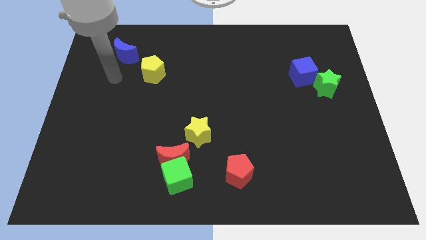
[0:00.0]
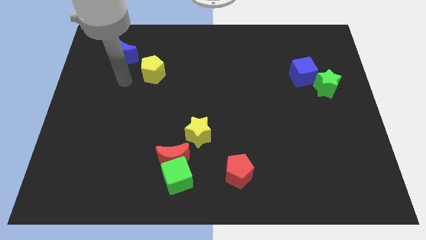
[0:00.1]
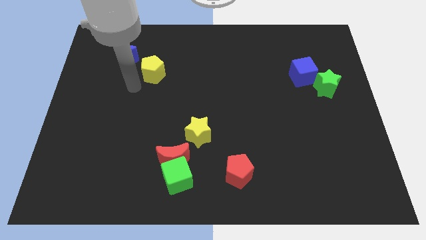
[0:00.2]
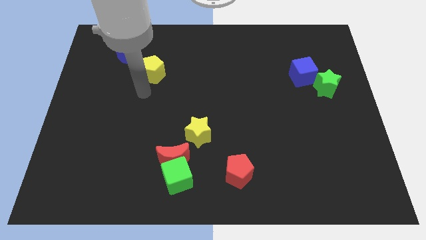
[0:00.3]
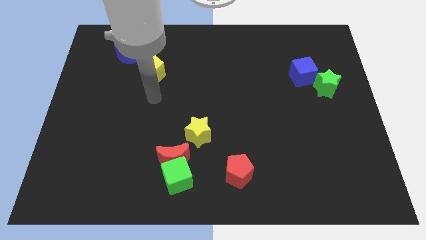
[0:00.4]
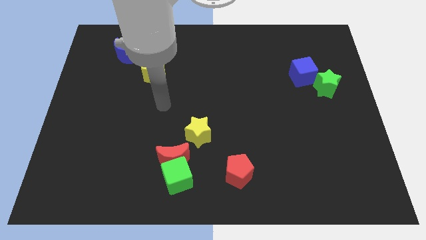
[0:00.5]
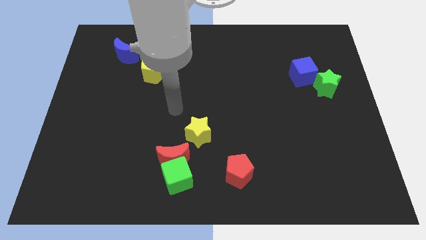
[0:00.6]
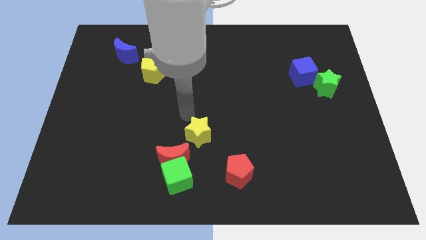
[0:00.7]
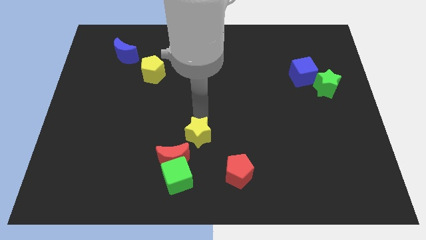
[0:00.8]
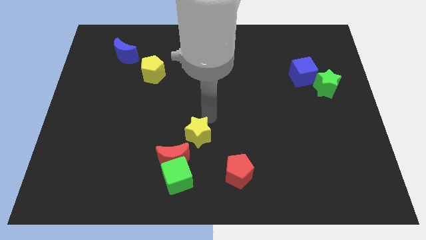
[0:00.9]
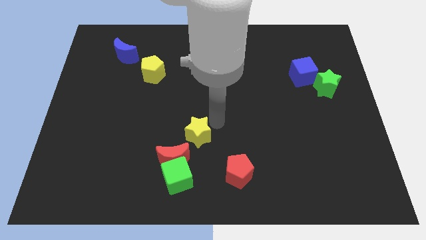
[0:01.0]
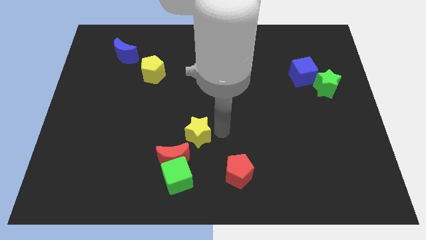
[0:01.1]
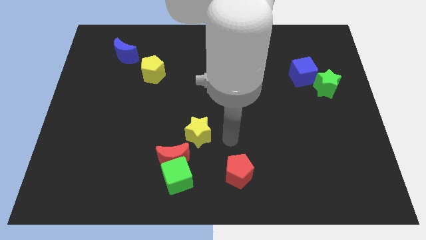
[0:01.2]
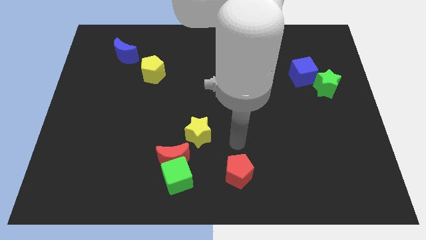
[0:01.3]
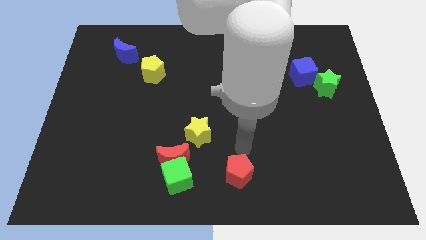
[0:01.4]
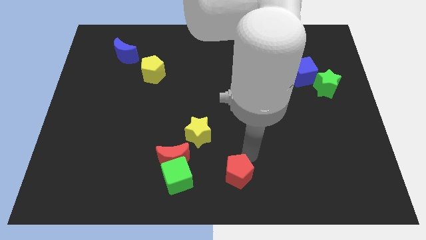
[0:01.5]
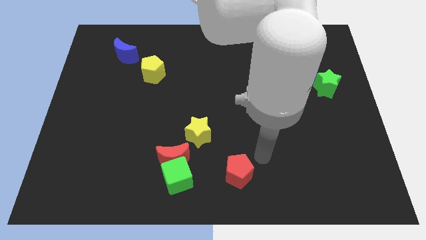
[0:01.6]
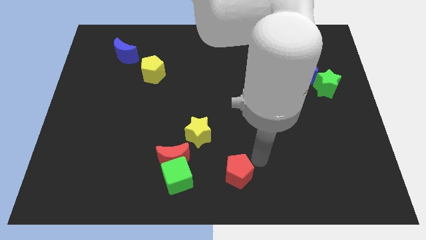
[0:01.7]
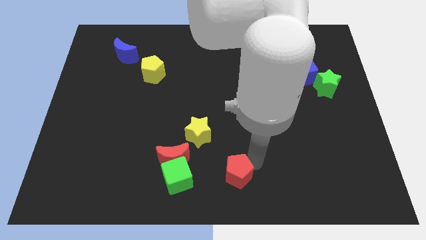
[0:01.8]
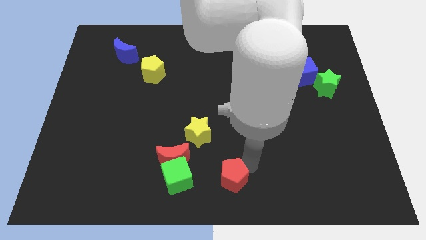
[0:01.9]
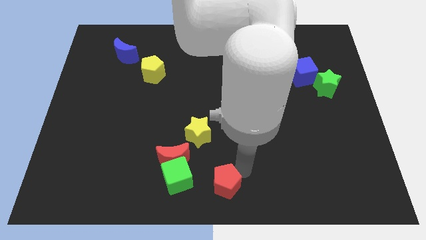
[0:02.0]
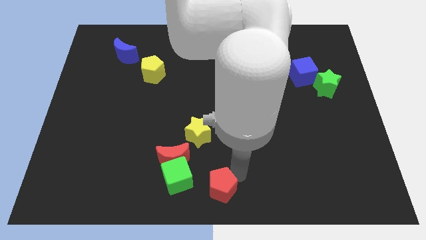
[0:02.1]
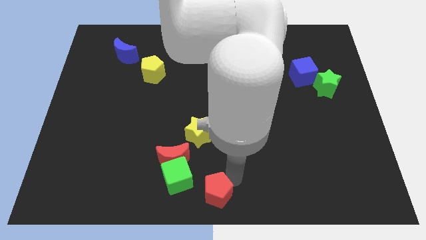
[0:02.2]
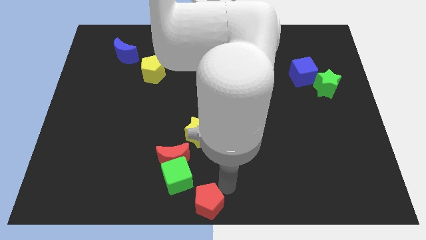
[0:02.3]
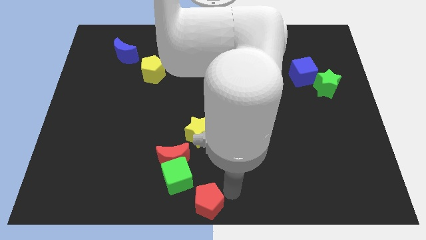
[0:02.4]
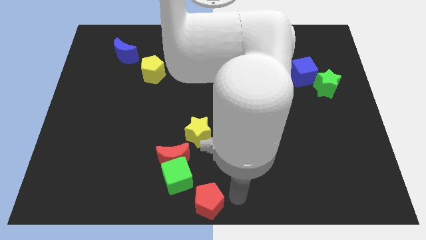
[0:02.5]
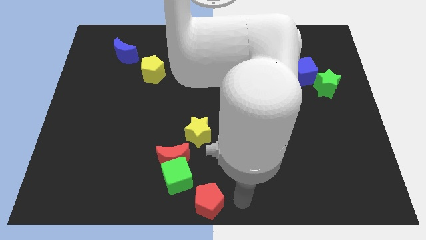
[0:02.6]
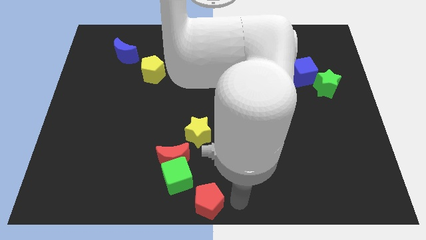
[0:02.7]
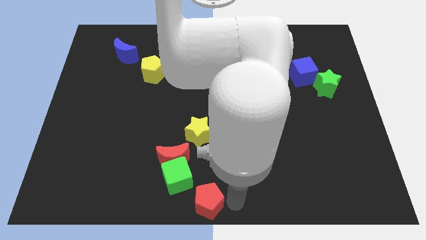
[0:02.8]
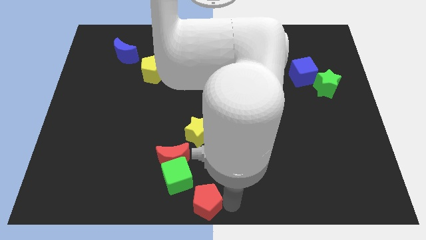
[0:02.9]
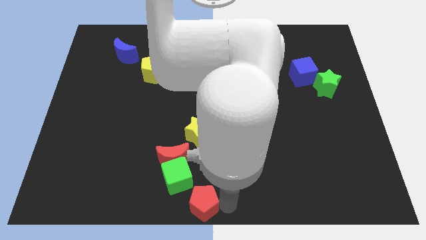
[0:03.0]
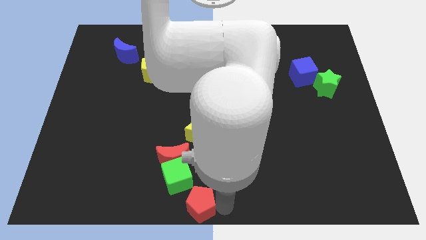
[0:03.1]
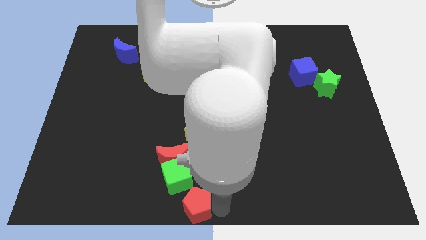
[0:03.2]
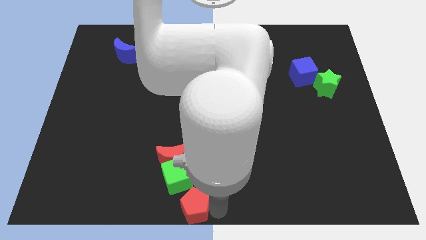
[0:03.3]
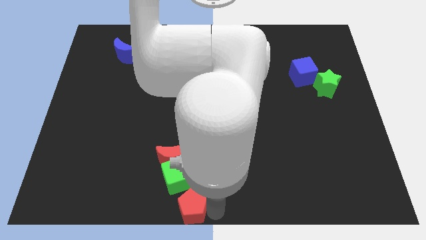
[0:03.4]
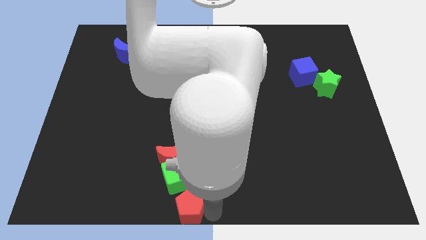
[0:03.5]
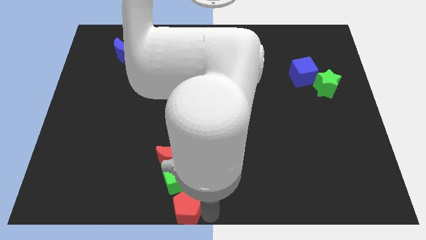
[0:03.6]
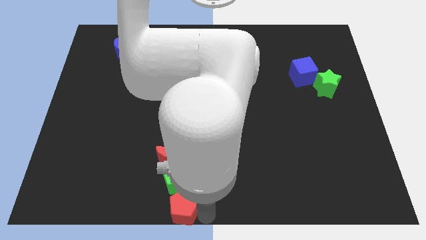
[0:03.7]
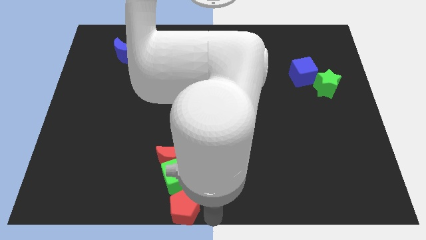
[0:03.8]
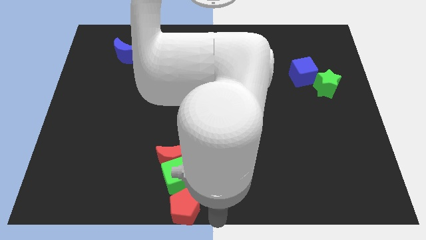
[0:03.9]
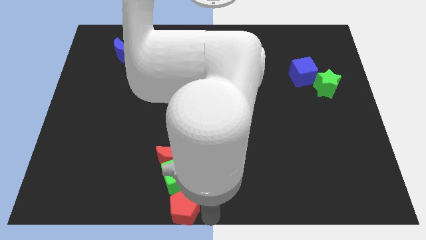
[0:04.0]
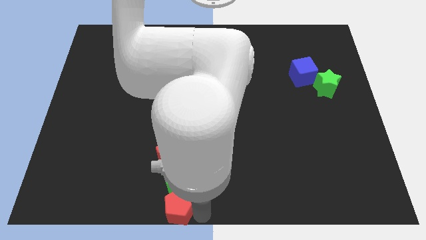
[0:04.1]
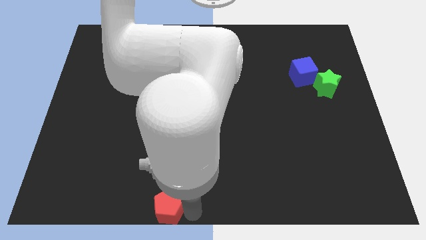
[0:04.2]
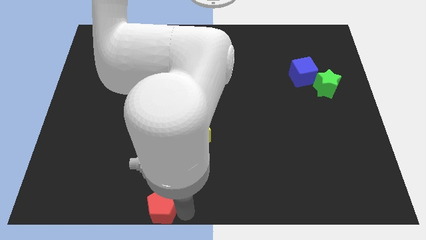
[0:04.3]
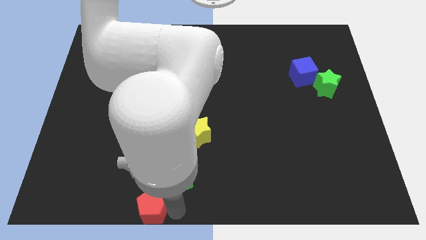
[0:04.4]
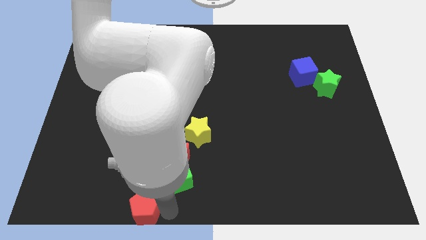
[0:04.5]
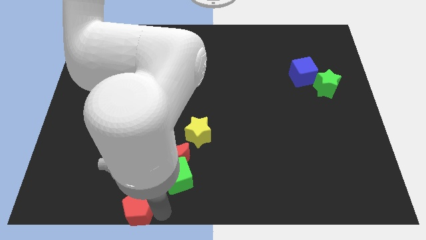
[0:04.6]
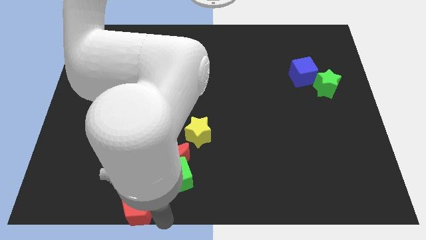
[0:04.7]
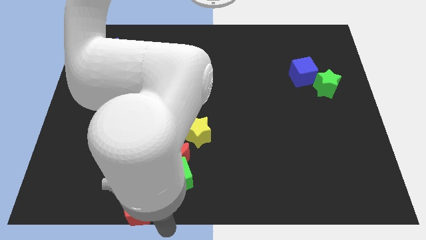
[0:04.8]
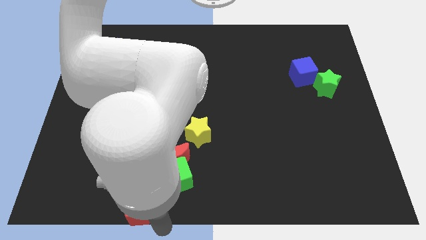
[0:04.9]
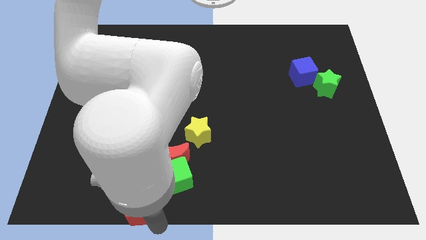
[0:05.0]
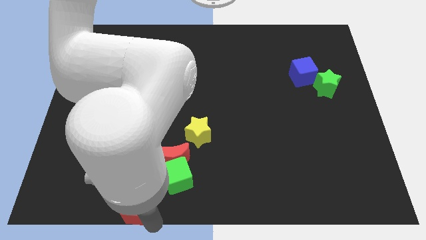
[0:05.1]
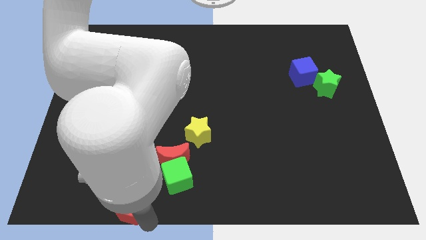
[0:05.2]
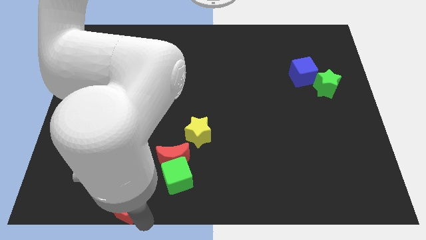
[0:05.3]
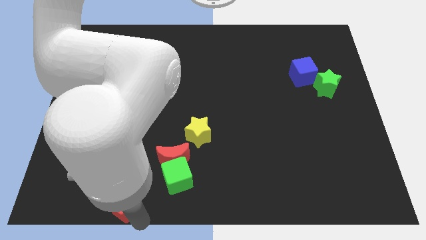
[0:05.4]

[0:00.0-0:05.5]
move the red pentagon left

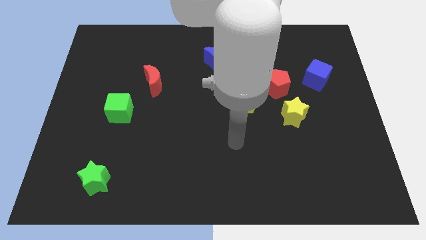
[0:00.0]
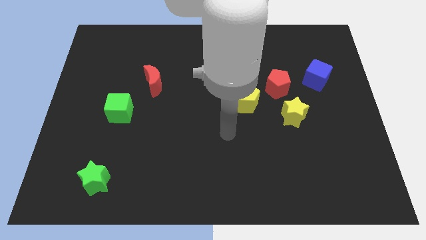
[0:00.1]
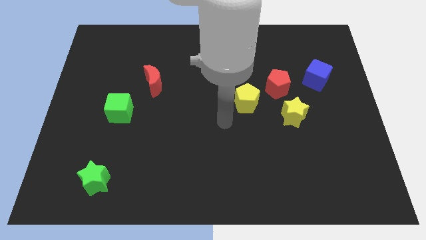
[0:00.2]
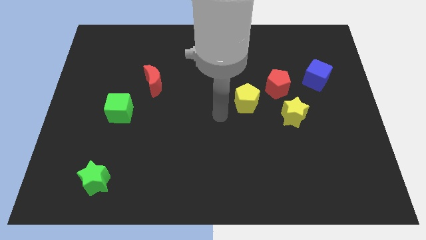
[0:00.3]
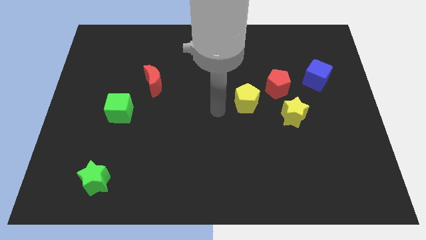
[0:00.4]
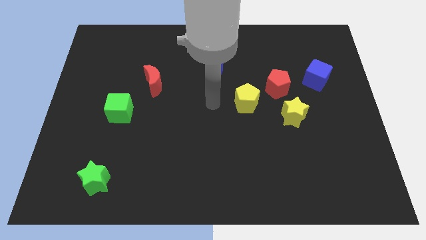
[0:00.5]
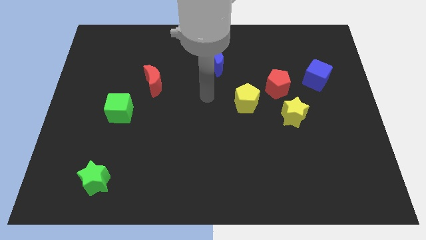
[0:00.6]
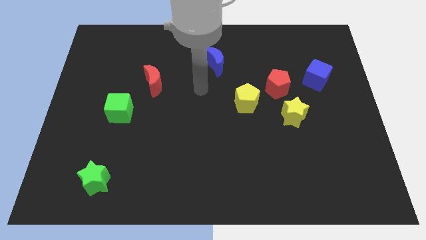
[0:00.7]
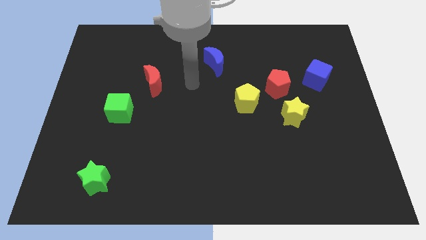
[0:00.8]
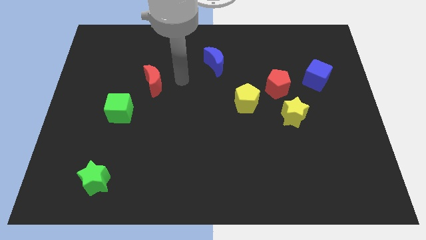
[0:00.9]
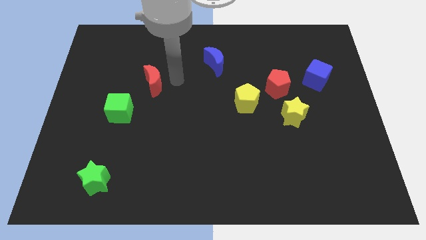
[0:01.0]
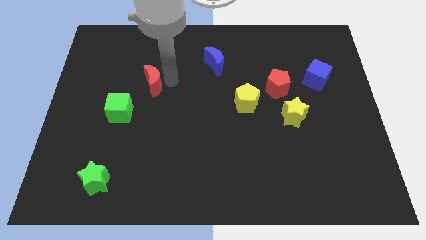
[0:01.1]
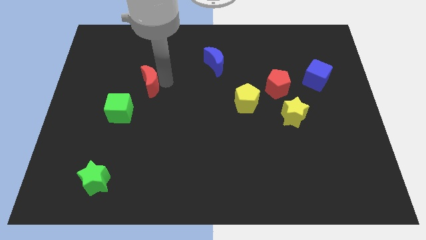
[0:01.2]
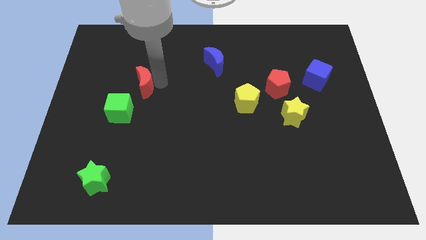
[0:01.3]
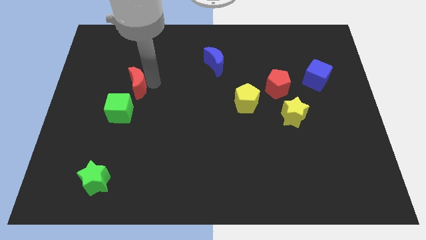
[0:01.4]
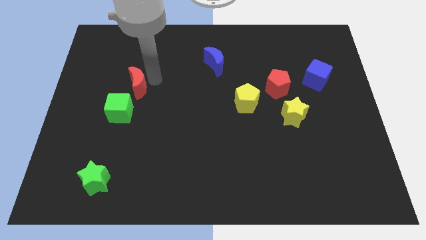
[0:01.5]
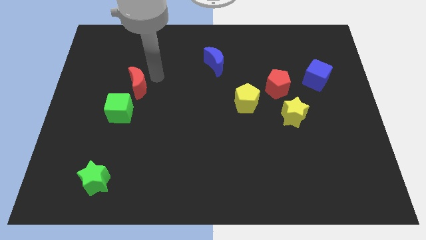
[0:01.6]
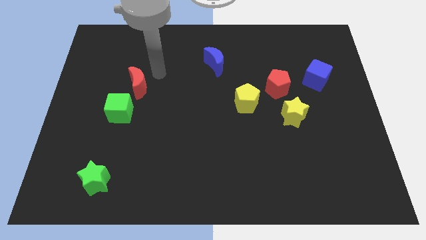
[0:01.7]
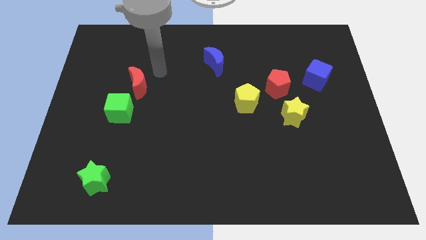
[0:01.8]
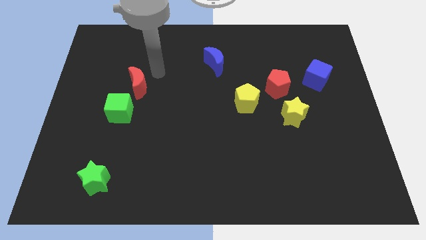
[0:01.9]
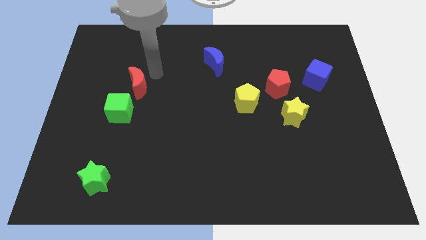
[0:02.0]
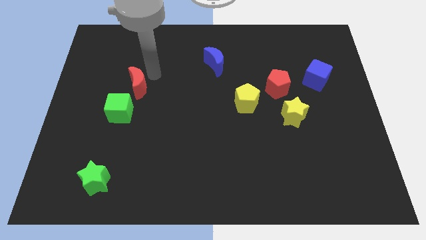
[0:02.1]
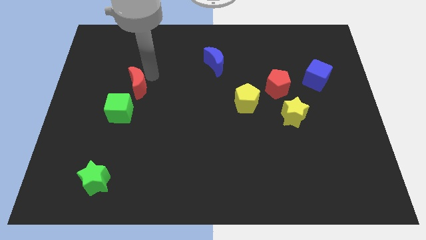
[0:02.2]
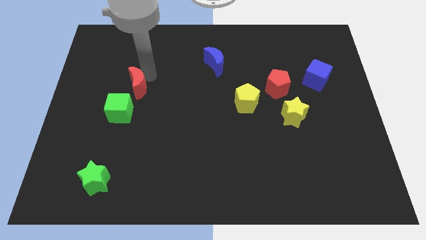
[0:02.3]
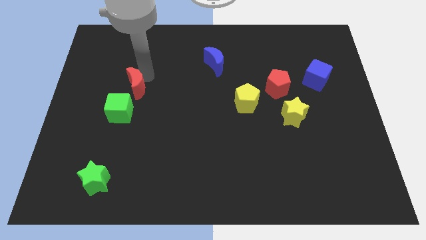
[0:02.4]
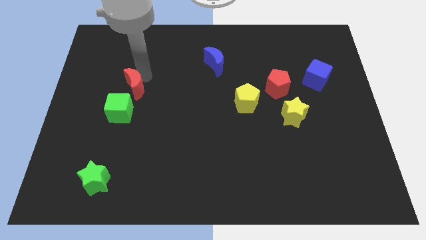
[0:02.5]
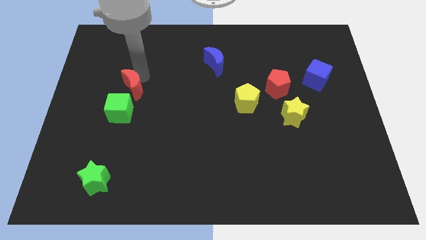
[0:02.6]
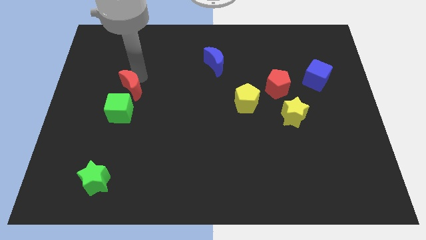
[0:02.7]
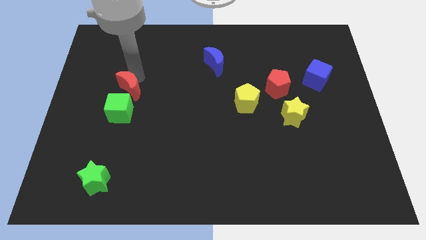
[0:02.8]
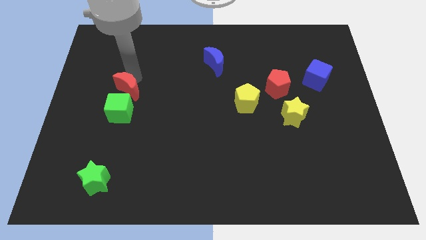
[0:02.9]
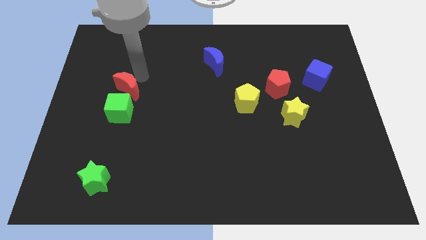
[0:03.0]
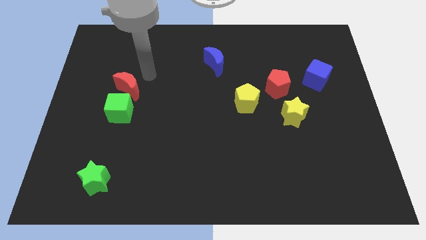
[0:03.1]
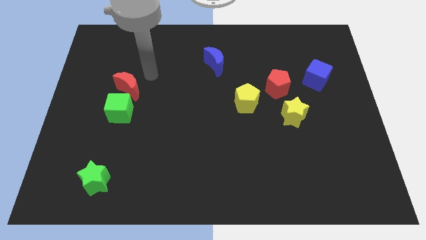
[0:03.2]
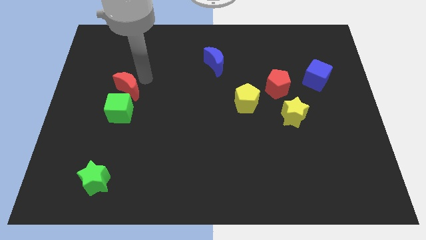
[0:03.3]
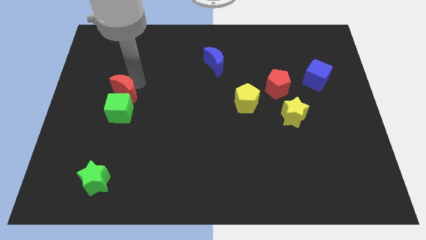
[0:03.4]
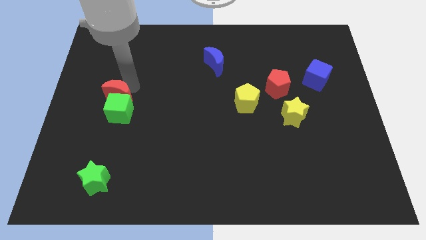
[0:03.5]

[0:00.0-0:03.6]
slightly move the red moon downwards and left diagonally
